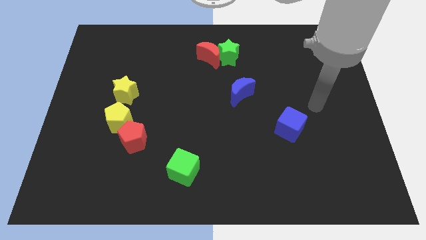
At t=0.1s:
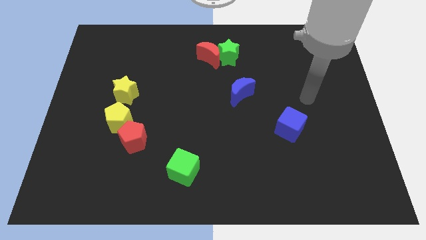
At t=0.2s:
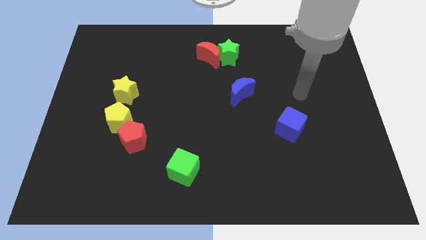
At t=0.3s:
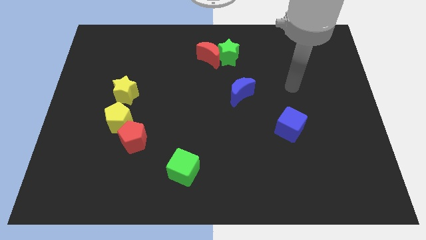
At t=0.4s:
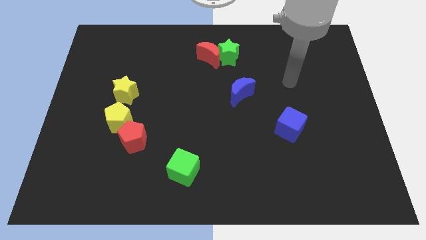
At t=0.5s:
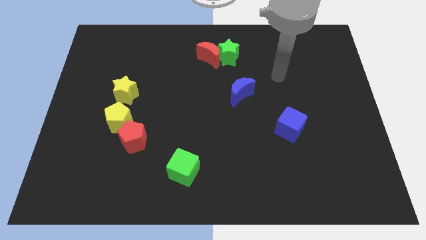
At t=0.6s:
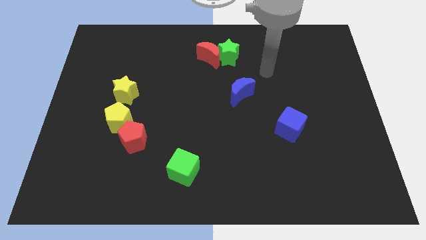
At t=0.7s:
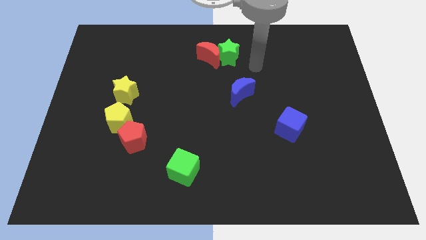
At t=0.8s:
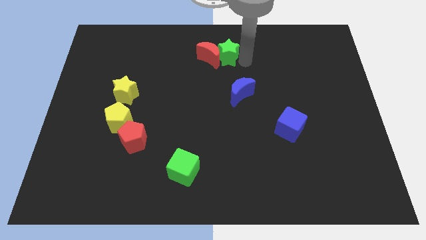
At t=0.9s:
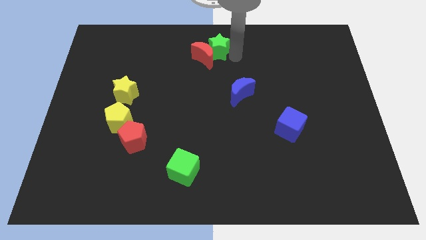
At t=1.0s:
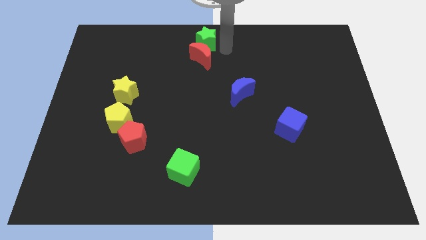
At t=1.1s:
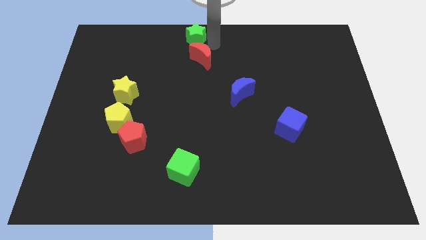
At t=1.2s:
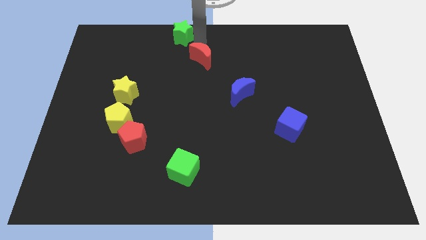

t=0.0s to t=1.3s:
separate the red moon from the green star

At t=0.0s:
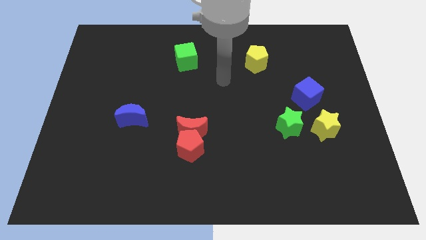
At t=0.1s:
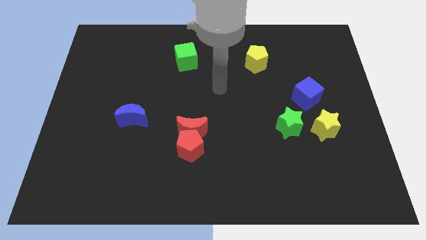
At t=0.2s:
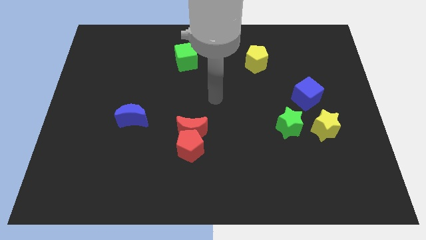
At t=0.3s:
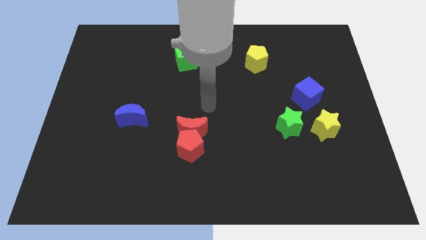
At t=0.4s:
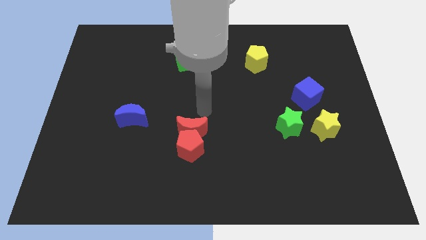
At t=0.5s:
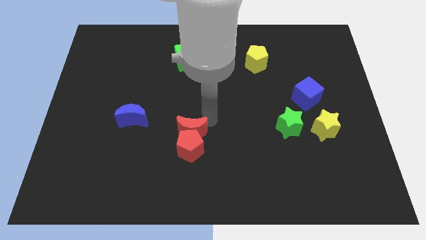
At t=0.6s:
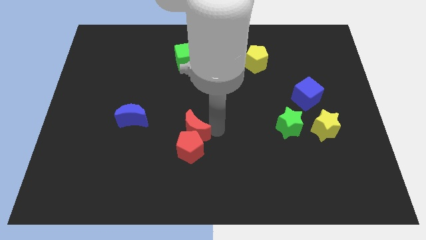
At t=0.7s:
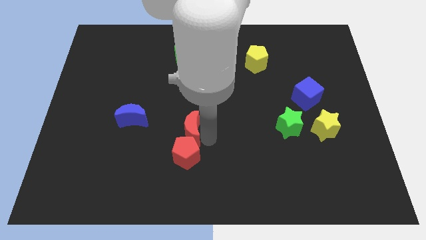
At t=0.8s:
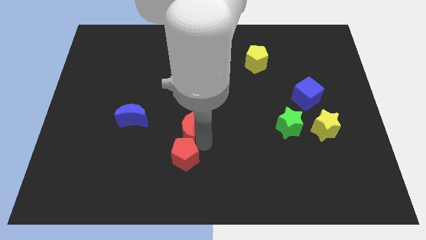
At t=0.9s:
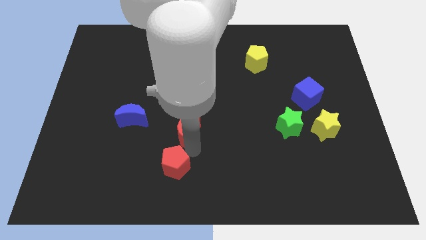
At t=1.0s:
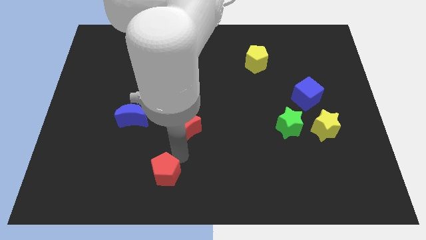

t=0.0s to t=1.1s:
pull the red moon apart from the red pentagon

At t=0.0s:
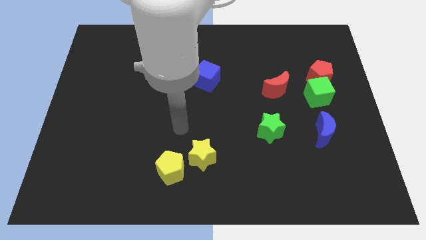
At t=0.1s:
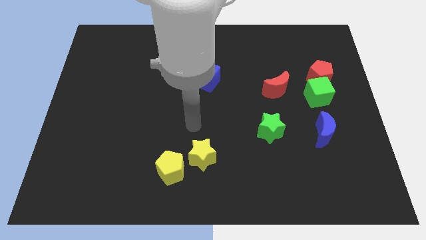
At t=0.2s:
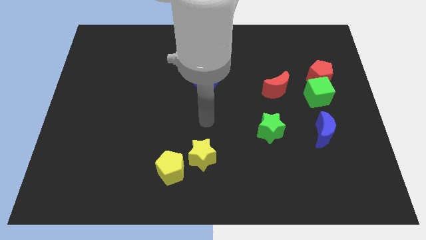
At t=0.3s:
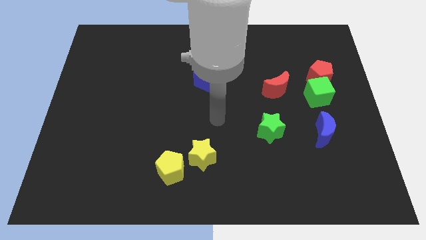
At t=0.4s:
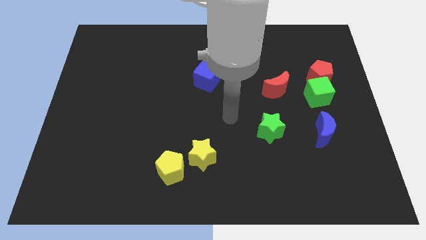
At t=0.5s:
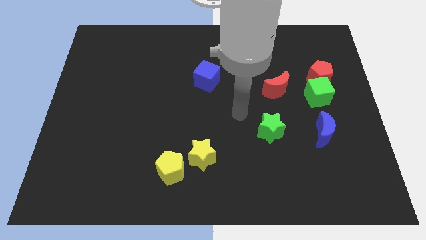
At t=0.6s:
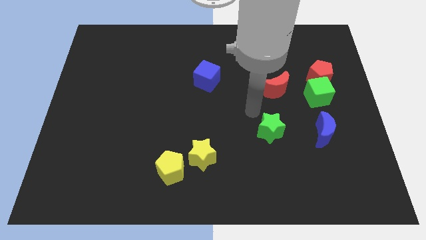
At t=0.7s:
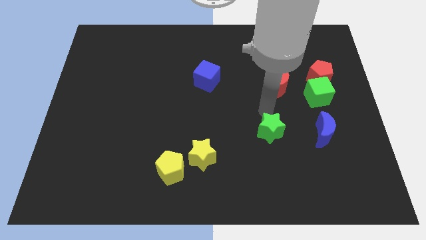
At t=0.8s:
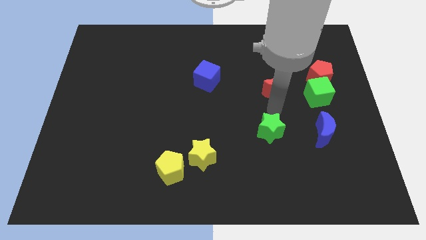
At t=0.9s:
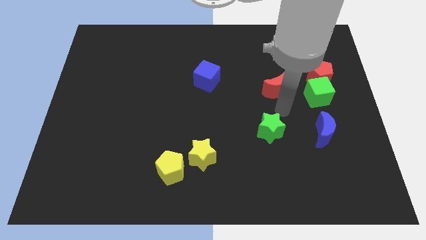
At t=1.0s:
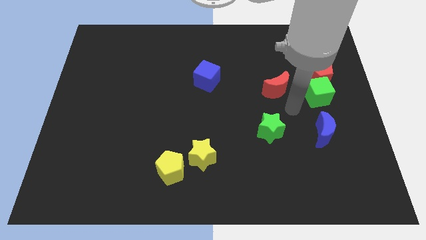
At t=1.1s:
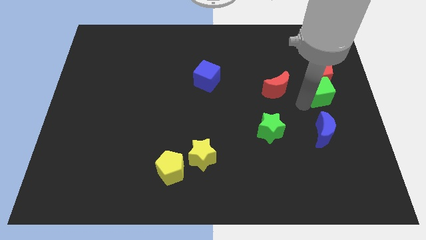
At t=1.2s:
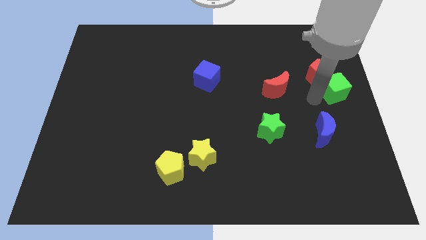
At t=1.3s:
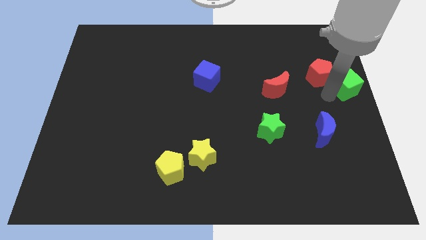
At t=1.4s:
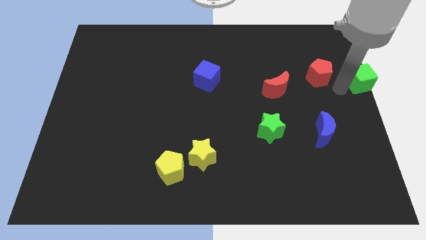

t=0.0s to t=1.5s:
pull the red pentagon apart from the green cube

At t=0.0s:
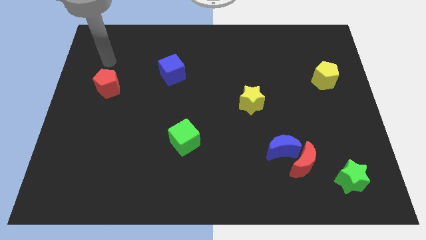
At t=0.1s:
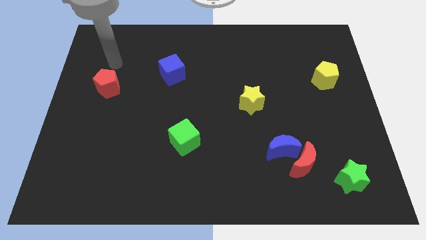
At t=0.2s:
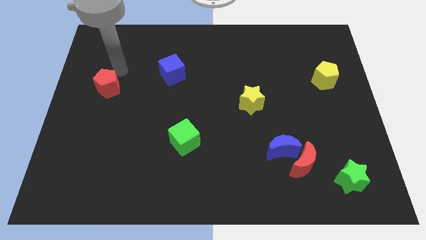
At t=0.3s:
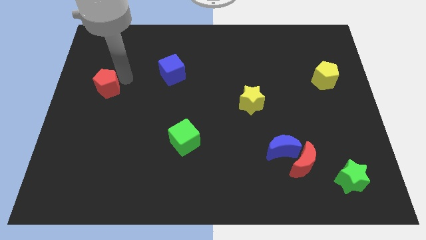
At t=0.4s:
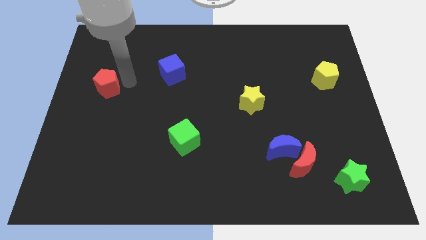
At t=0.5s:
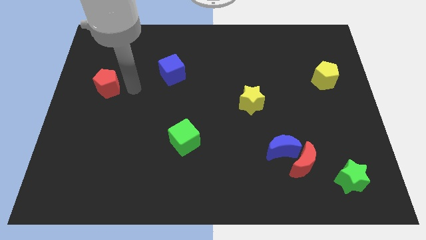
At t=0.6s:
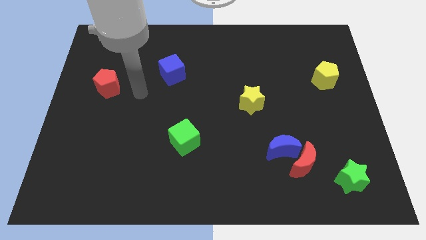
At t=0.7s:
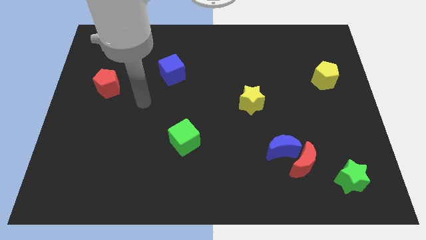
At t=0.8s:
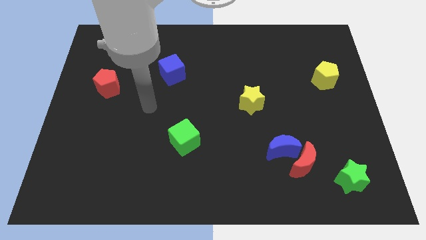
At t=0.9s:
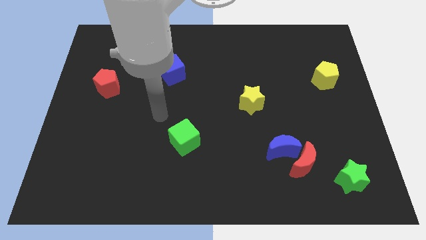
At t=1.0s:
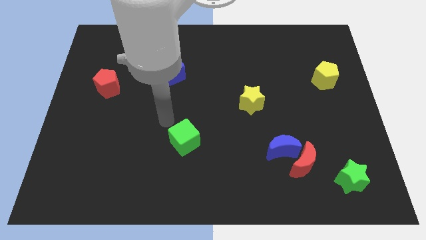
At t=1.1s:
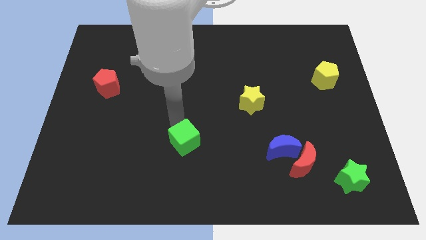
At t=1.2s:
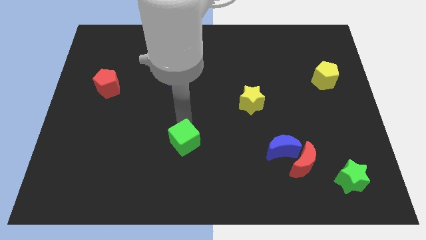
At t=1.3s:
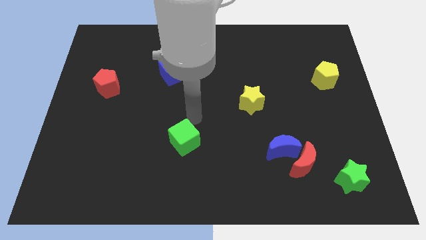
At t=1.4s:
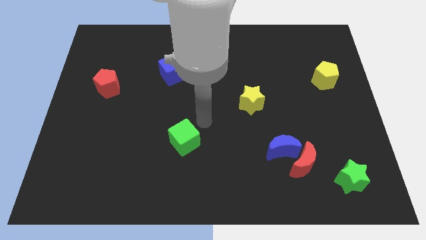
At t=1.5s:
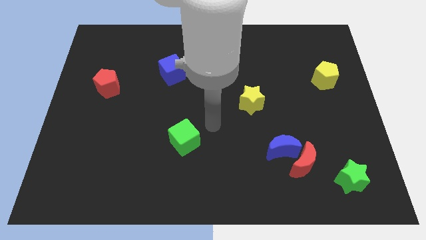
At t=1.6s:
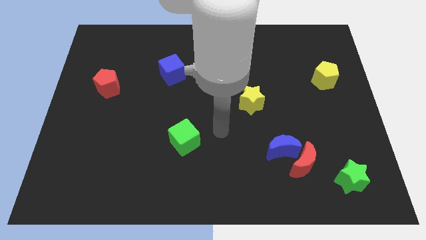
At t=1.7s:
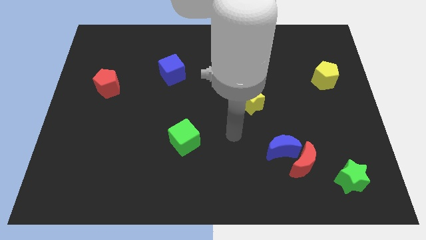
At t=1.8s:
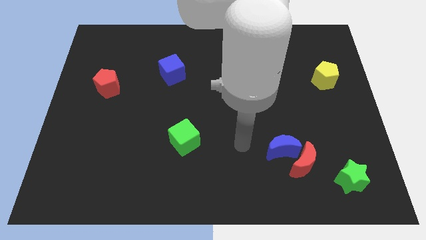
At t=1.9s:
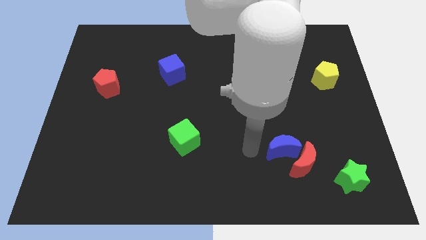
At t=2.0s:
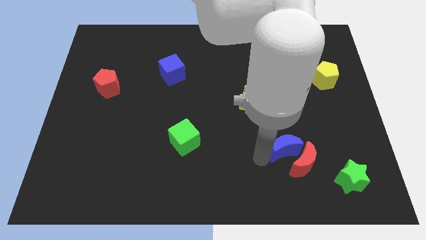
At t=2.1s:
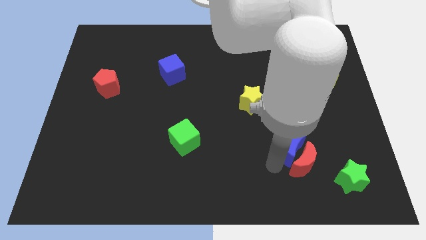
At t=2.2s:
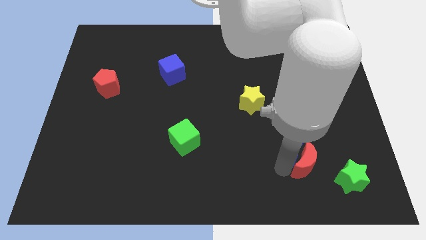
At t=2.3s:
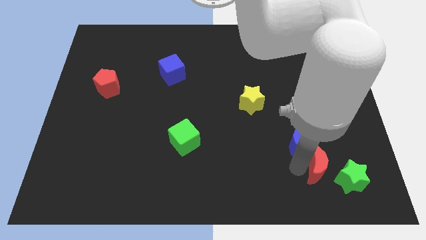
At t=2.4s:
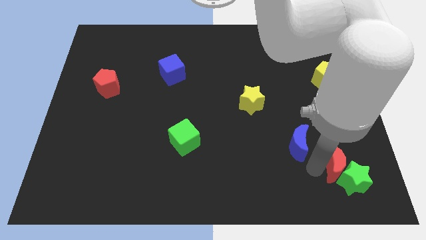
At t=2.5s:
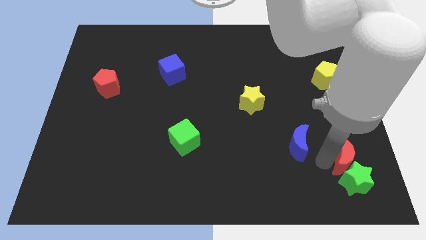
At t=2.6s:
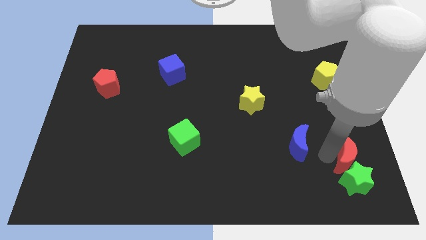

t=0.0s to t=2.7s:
move the blue moon away from the red moon

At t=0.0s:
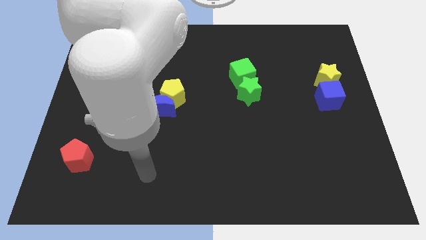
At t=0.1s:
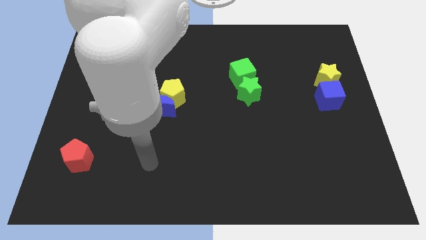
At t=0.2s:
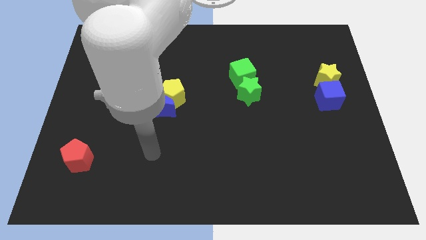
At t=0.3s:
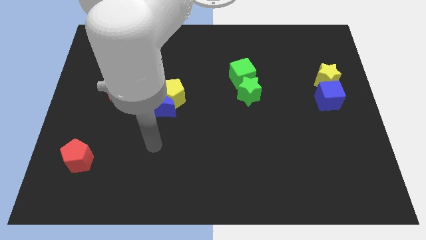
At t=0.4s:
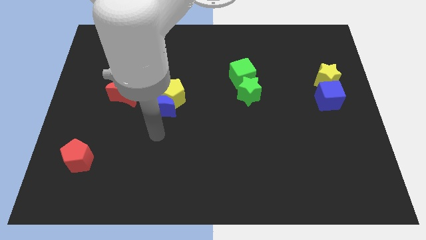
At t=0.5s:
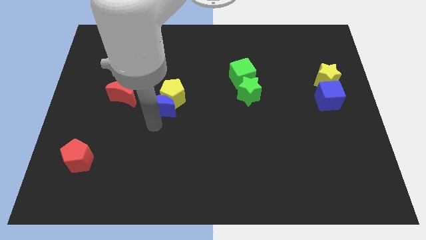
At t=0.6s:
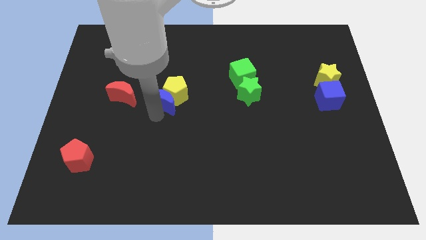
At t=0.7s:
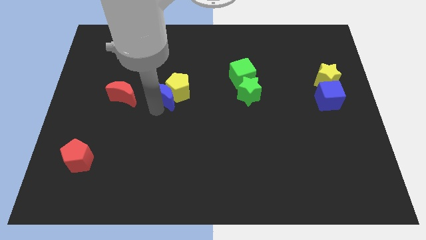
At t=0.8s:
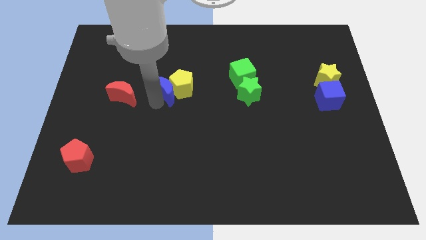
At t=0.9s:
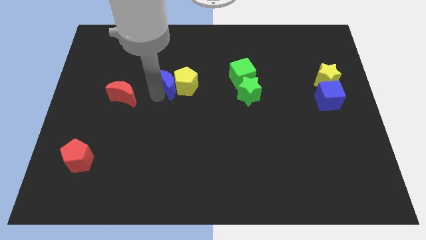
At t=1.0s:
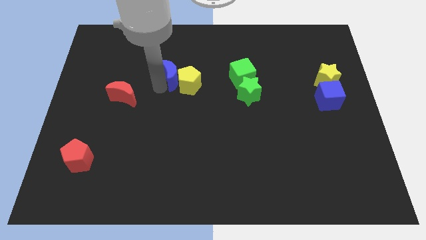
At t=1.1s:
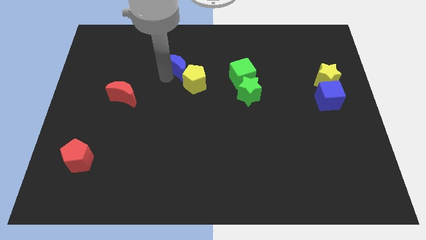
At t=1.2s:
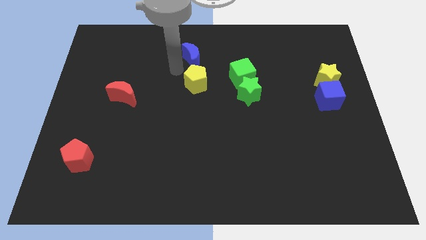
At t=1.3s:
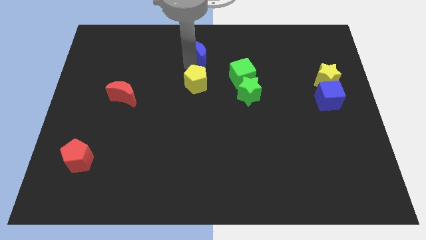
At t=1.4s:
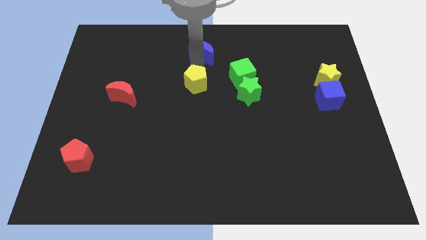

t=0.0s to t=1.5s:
pull the yellow pentagon apart from the blue moon

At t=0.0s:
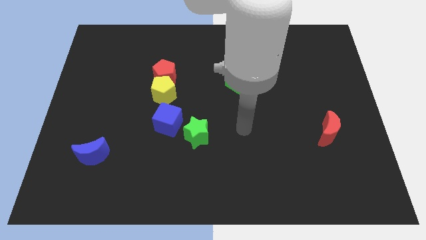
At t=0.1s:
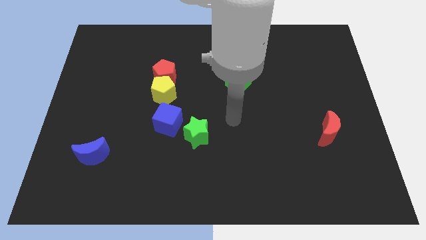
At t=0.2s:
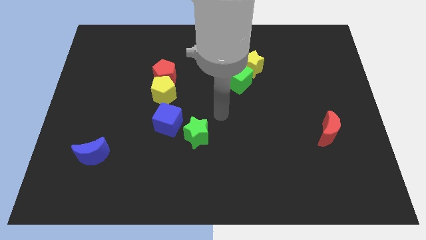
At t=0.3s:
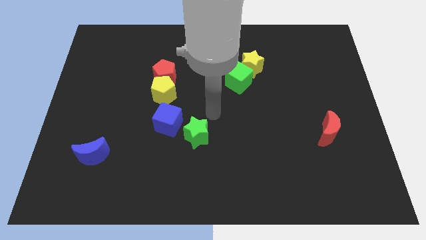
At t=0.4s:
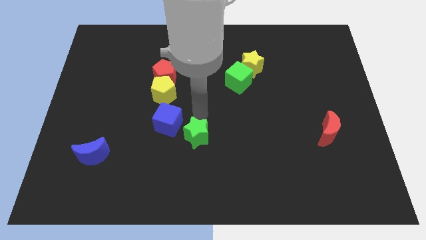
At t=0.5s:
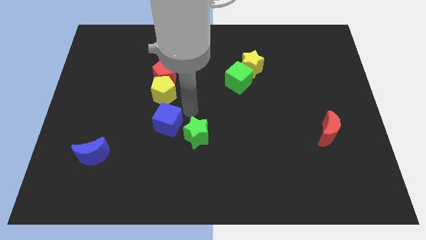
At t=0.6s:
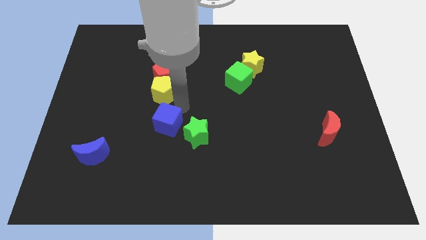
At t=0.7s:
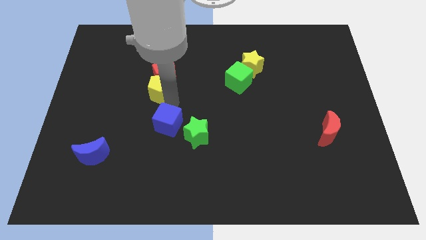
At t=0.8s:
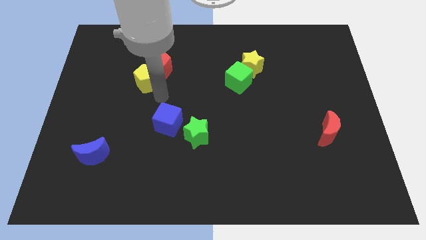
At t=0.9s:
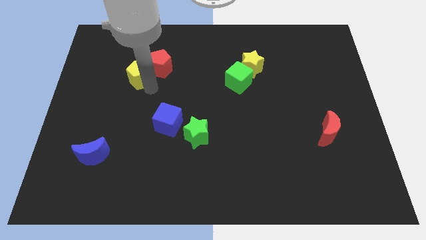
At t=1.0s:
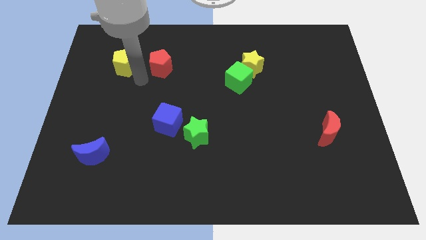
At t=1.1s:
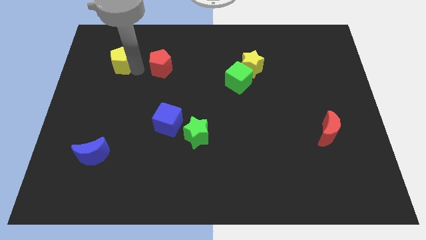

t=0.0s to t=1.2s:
separate the red pentagon from the yellow pentagon
